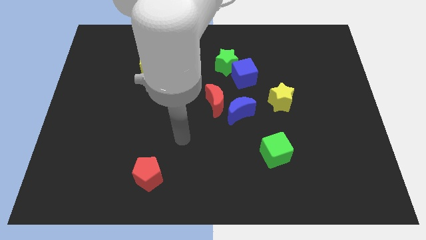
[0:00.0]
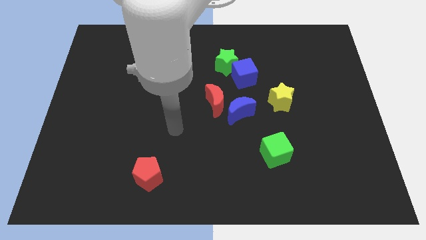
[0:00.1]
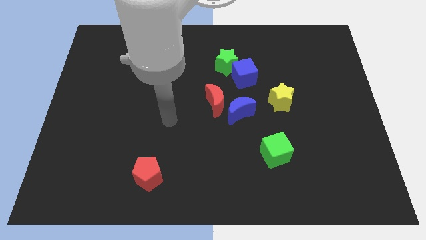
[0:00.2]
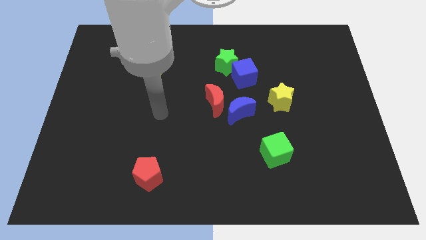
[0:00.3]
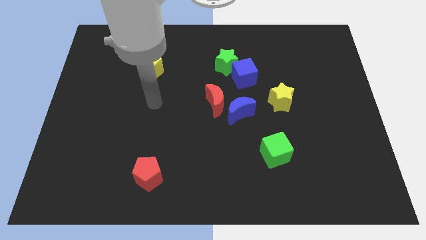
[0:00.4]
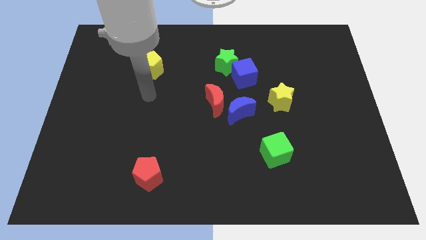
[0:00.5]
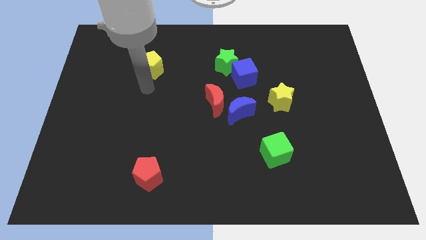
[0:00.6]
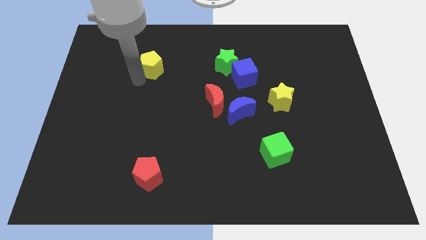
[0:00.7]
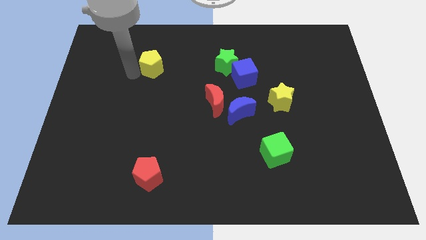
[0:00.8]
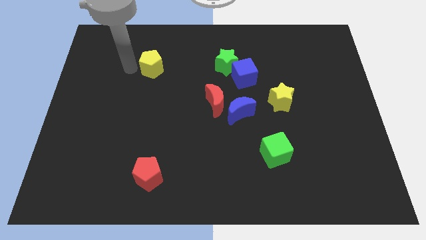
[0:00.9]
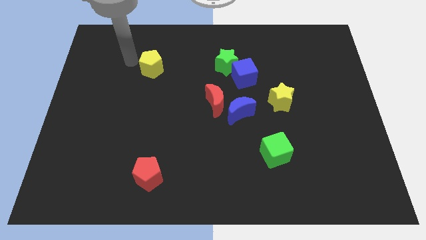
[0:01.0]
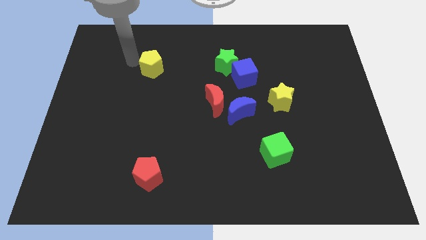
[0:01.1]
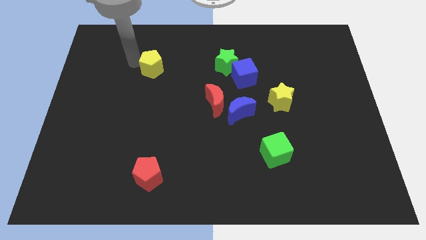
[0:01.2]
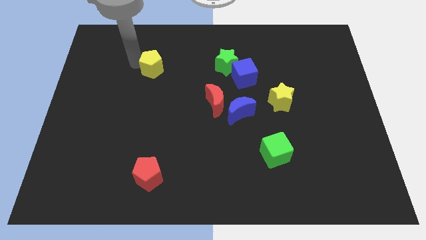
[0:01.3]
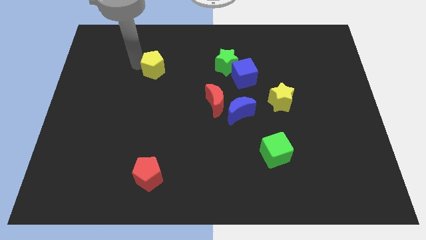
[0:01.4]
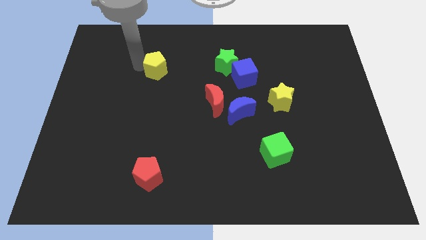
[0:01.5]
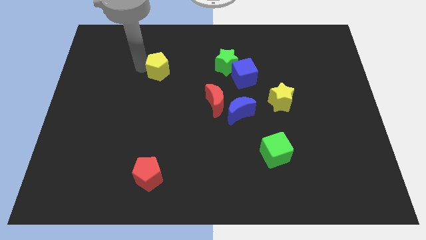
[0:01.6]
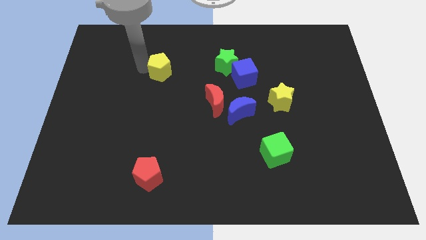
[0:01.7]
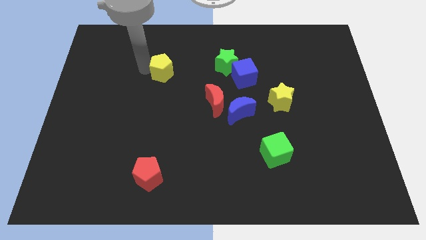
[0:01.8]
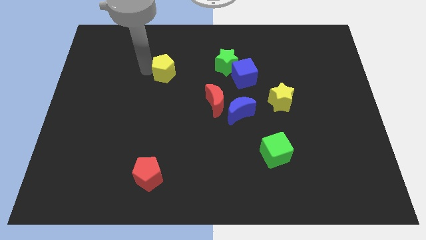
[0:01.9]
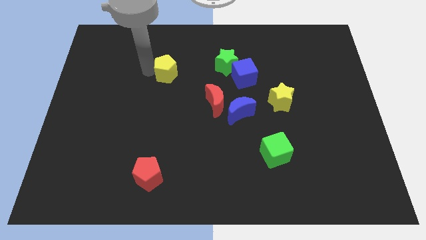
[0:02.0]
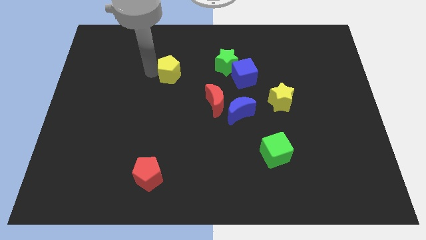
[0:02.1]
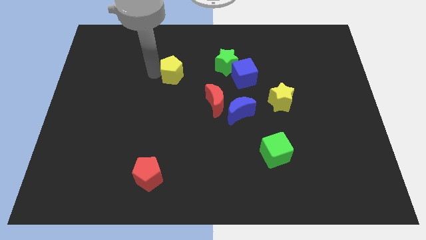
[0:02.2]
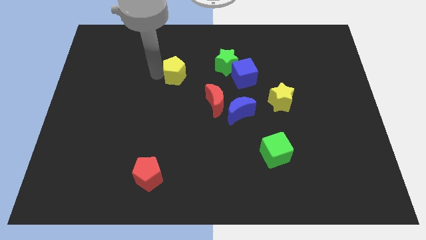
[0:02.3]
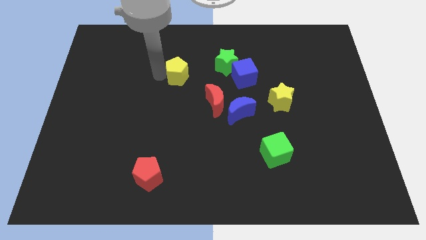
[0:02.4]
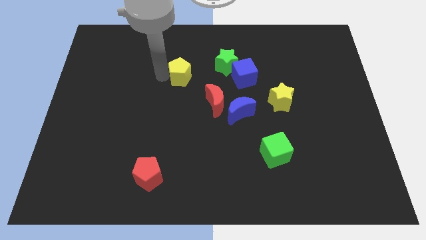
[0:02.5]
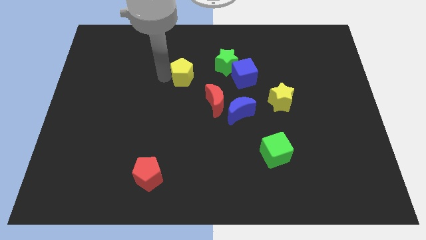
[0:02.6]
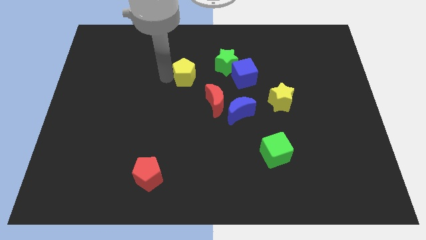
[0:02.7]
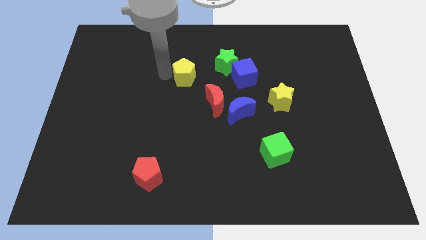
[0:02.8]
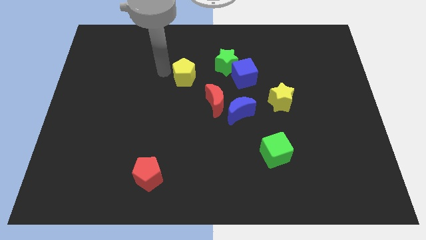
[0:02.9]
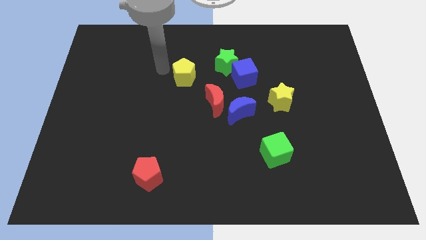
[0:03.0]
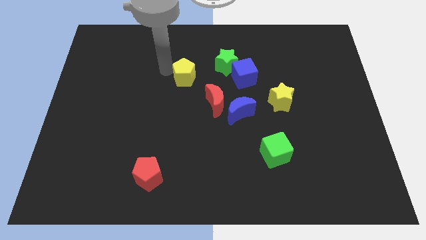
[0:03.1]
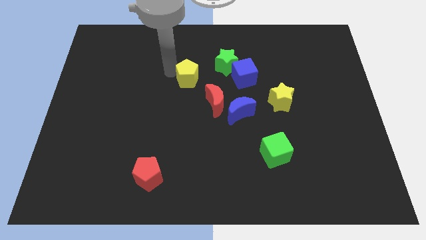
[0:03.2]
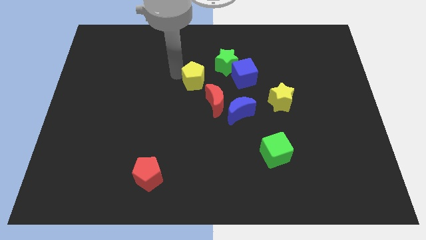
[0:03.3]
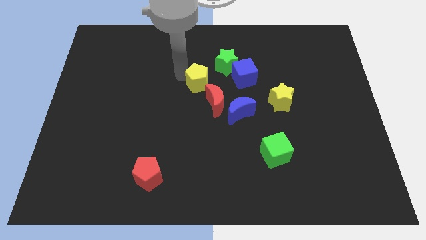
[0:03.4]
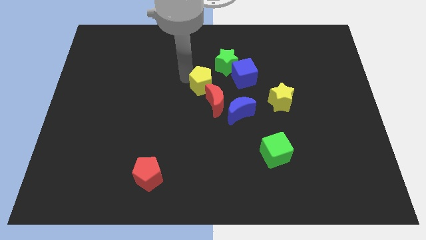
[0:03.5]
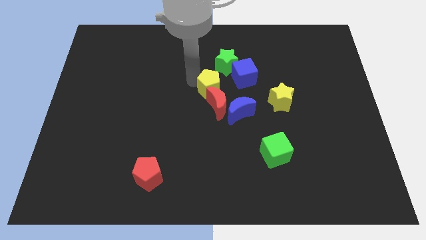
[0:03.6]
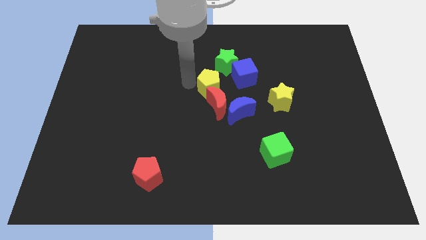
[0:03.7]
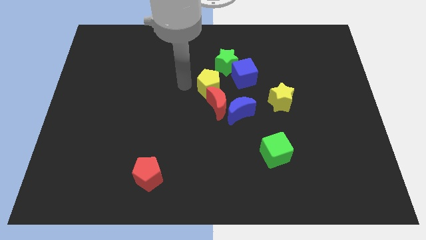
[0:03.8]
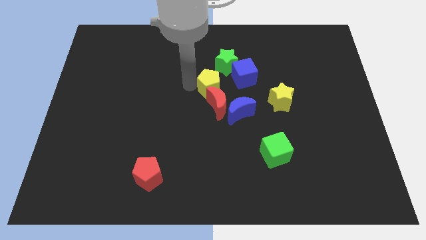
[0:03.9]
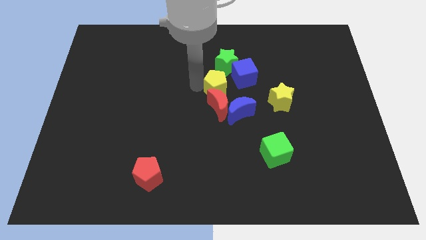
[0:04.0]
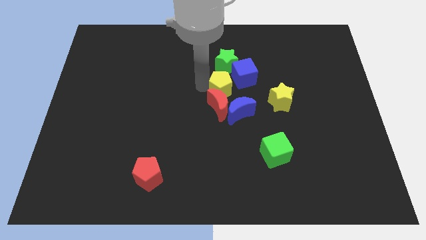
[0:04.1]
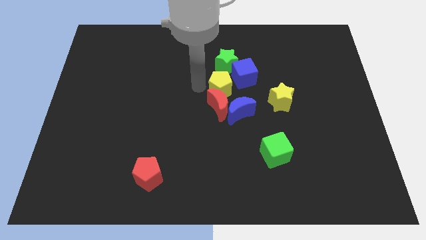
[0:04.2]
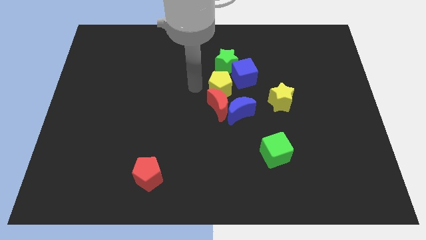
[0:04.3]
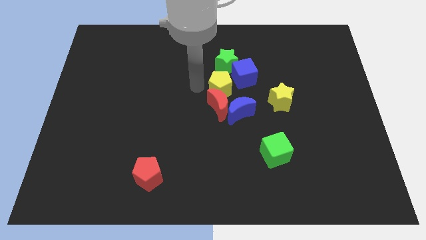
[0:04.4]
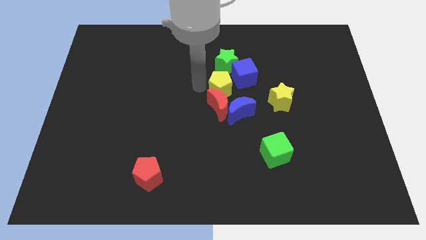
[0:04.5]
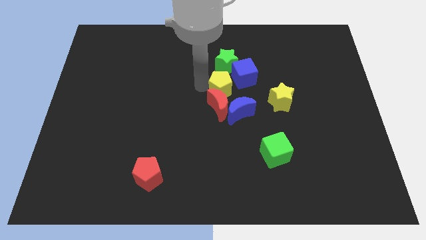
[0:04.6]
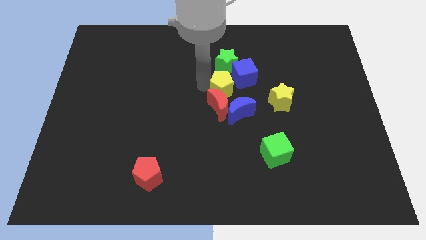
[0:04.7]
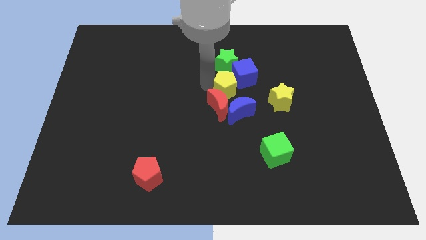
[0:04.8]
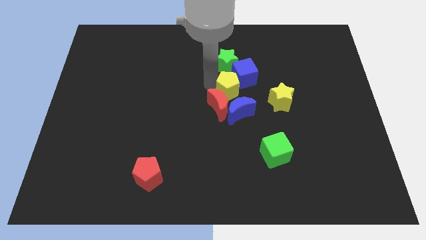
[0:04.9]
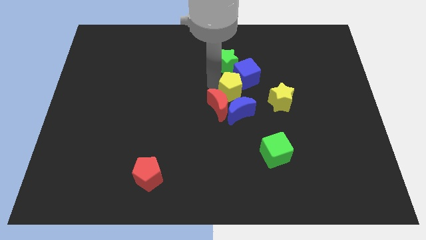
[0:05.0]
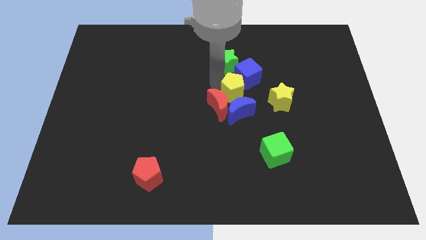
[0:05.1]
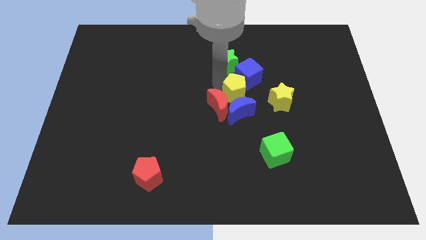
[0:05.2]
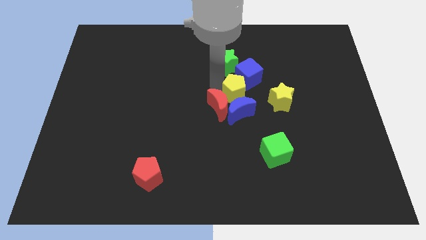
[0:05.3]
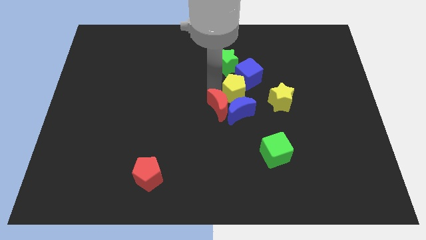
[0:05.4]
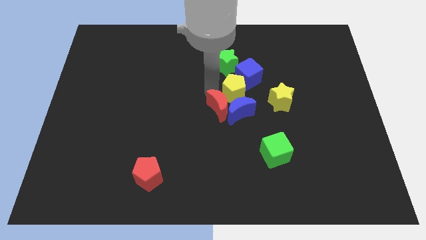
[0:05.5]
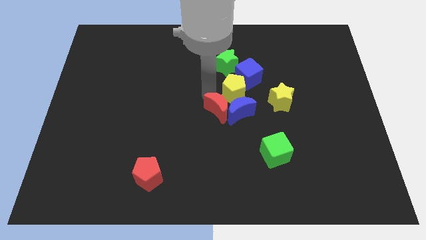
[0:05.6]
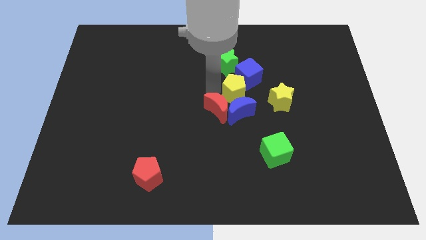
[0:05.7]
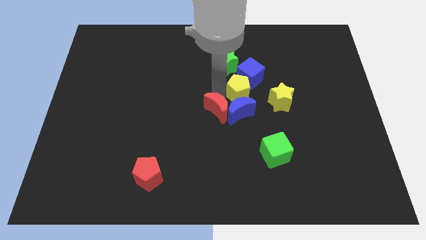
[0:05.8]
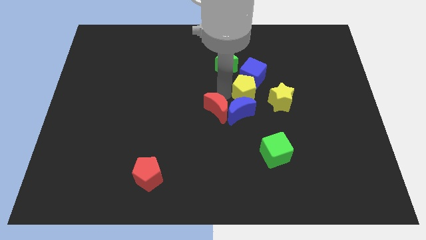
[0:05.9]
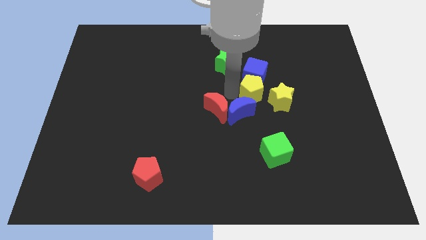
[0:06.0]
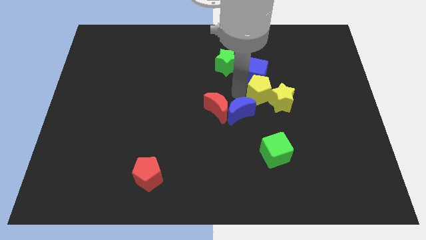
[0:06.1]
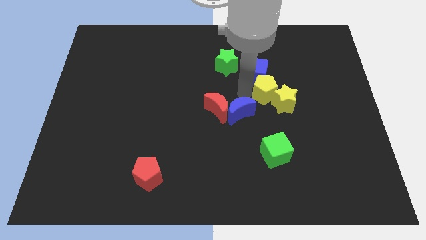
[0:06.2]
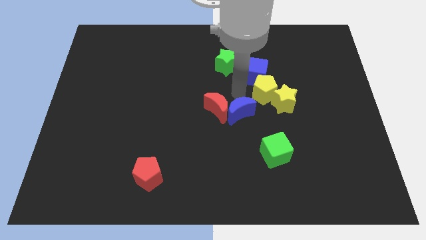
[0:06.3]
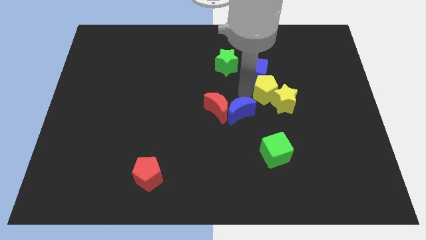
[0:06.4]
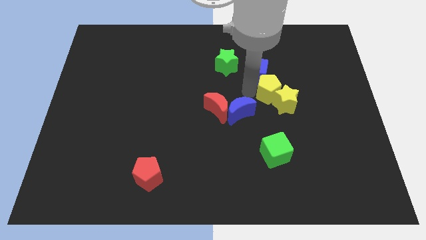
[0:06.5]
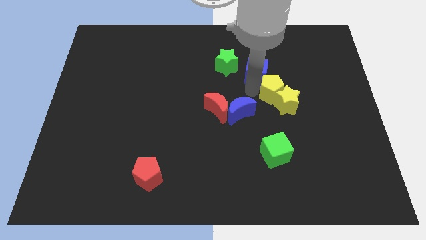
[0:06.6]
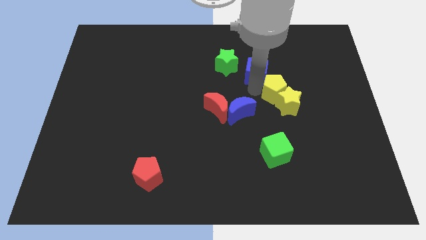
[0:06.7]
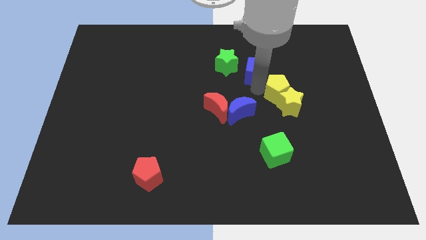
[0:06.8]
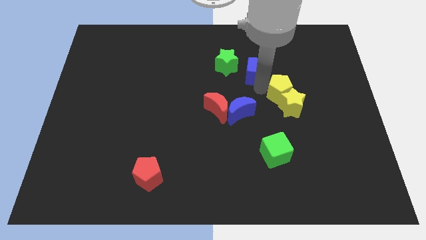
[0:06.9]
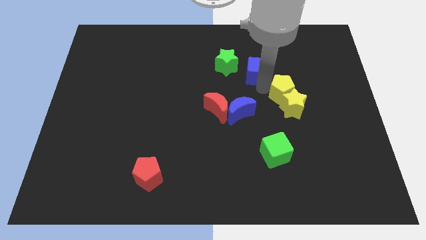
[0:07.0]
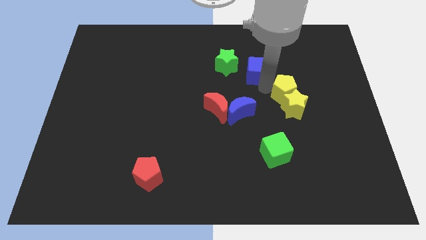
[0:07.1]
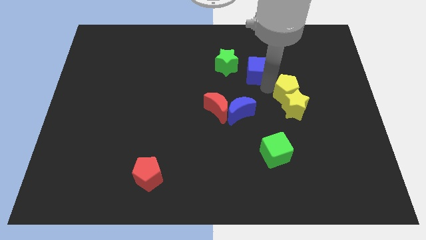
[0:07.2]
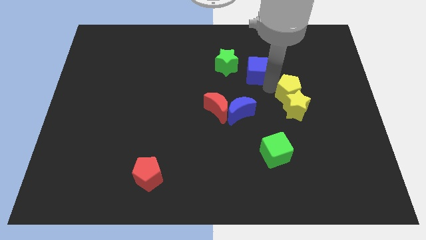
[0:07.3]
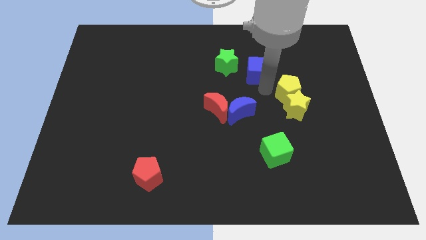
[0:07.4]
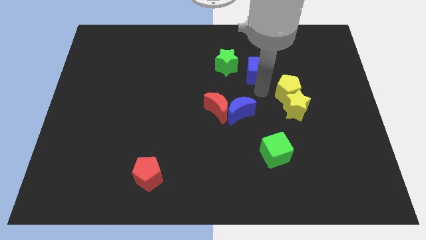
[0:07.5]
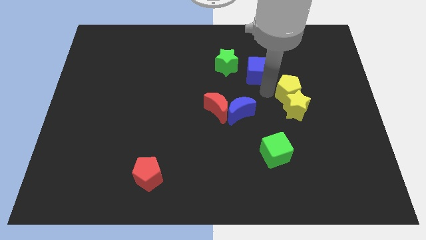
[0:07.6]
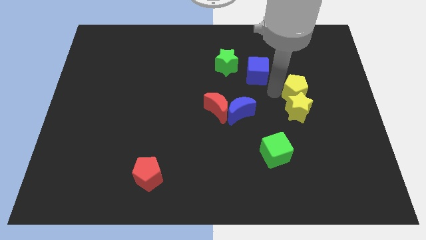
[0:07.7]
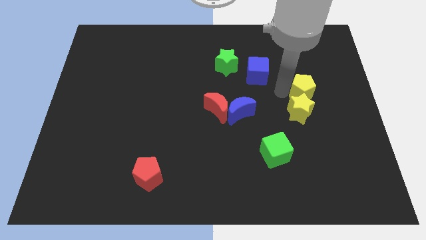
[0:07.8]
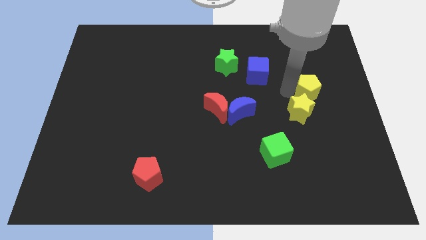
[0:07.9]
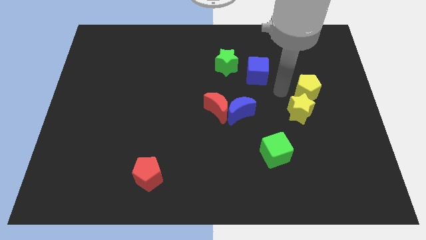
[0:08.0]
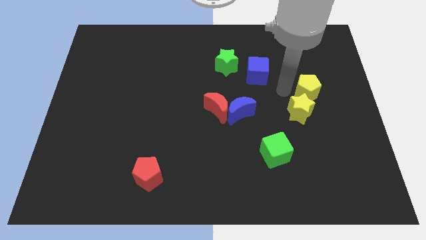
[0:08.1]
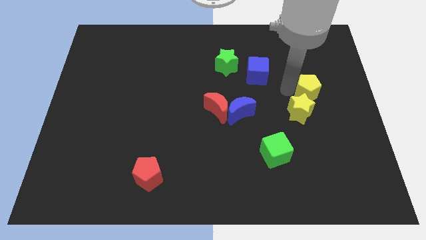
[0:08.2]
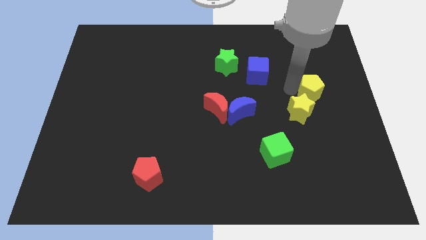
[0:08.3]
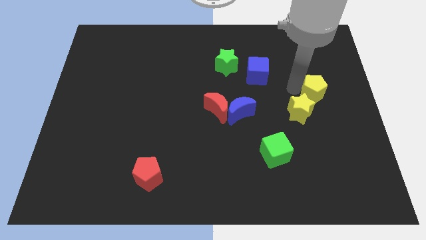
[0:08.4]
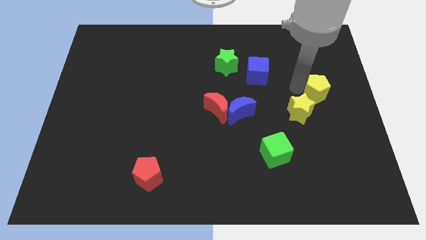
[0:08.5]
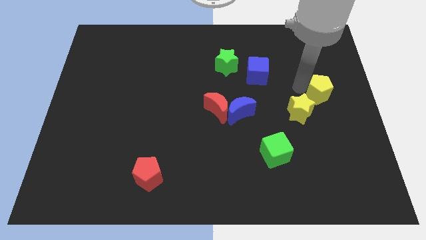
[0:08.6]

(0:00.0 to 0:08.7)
put the yellow pentagon to the center right
